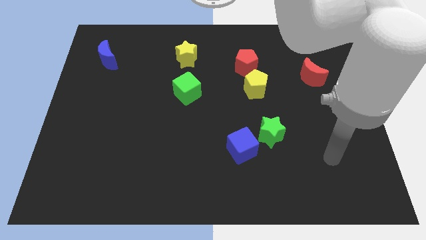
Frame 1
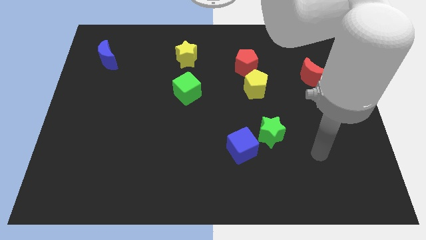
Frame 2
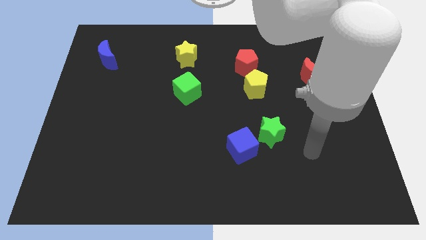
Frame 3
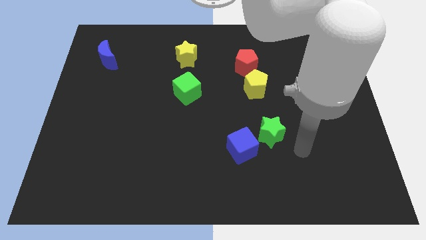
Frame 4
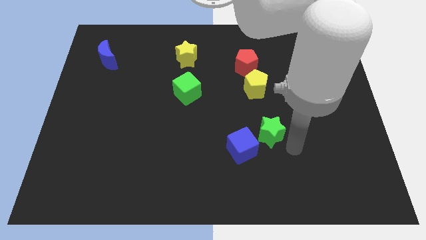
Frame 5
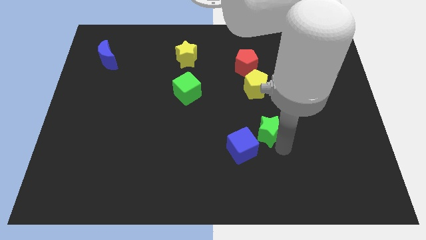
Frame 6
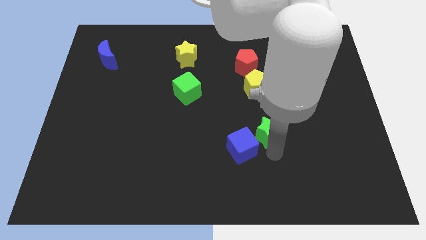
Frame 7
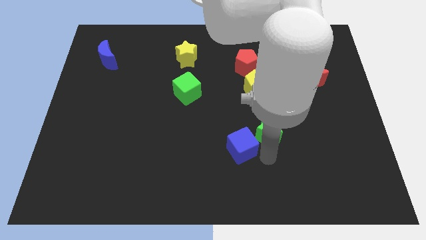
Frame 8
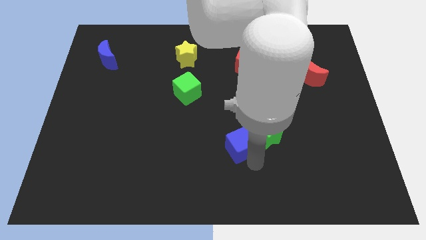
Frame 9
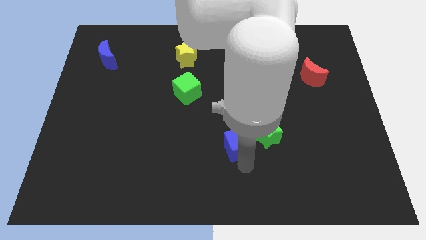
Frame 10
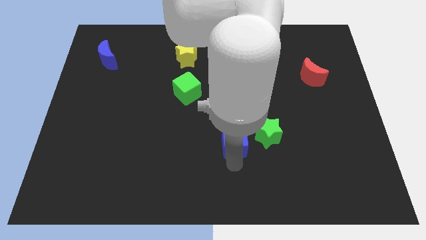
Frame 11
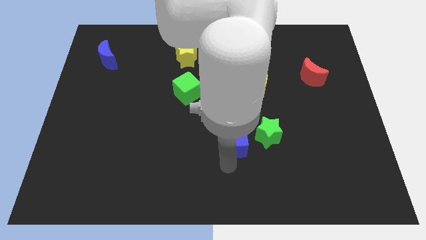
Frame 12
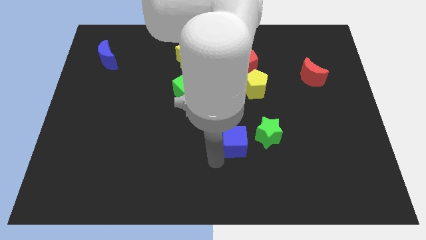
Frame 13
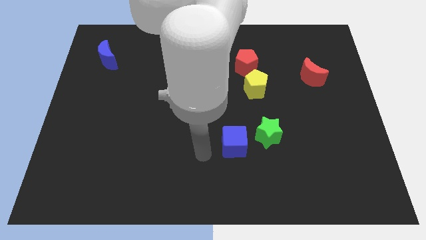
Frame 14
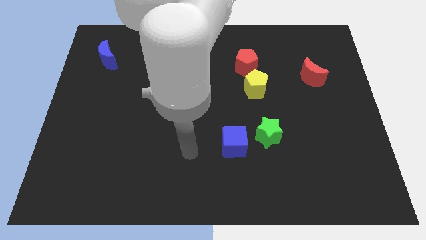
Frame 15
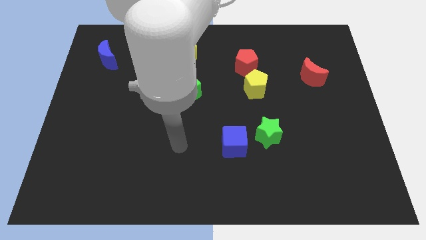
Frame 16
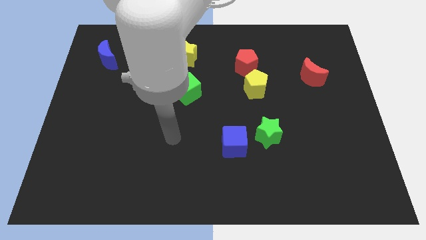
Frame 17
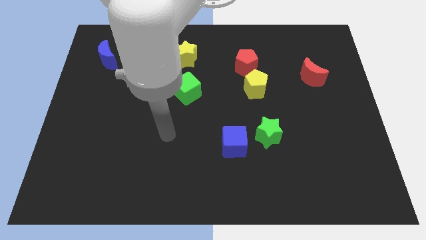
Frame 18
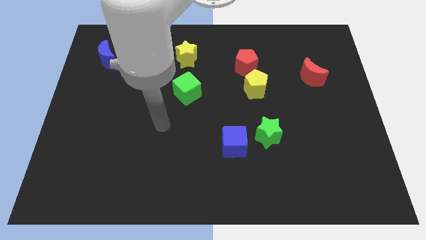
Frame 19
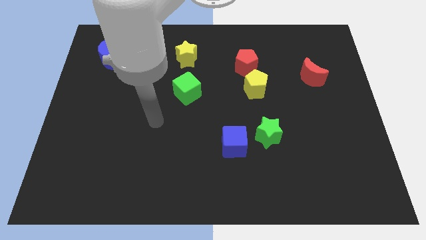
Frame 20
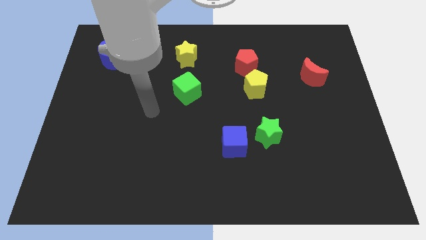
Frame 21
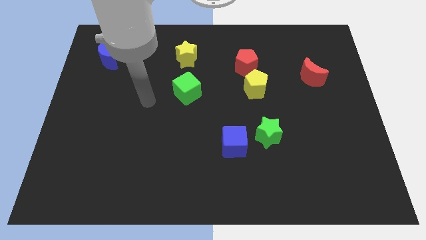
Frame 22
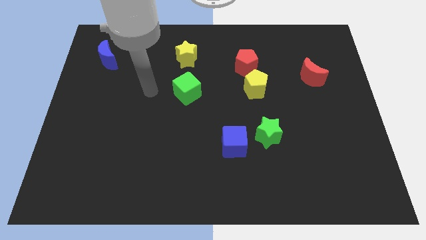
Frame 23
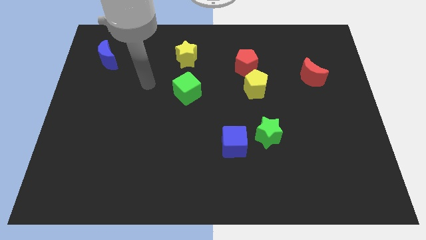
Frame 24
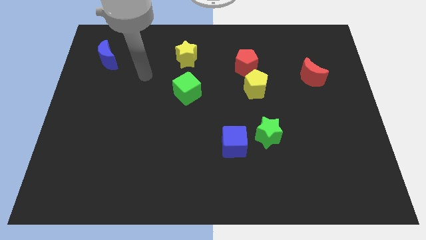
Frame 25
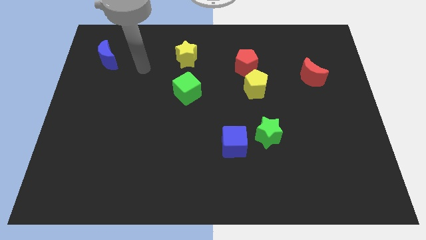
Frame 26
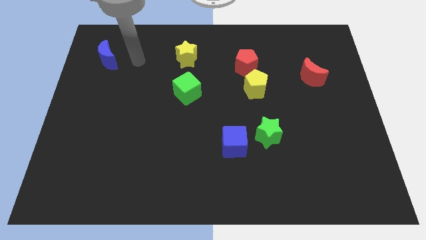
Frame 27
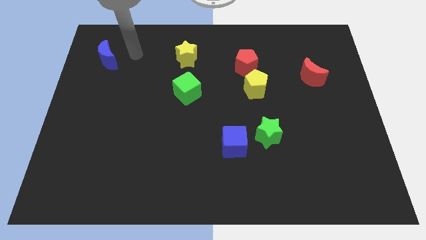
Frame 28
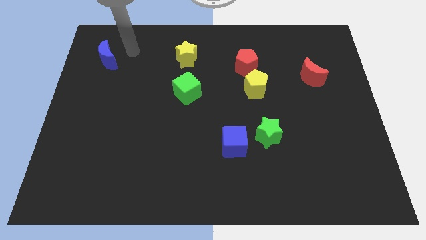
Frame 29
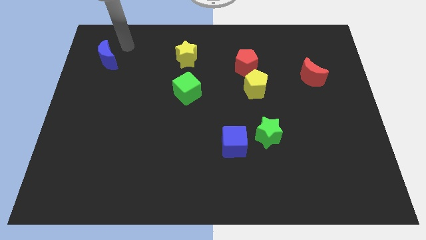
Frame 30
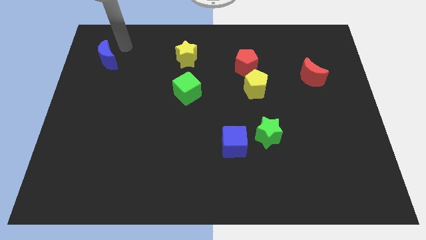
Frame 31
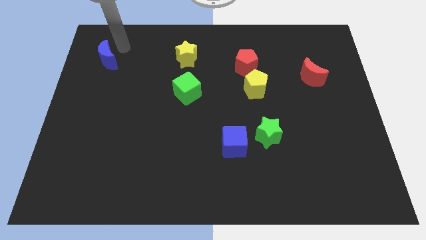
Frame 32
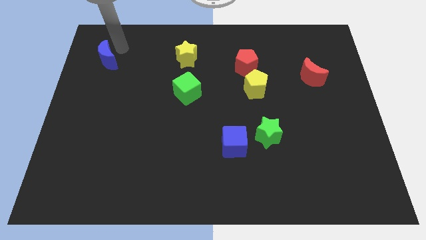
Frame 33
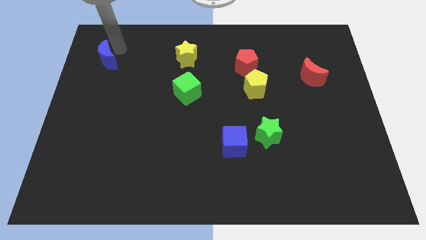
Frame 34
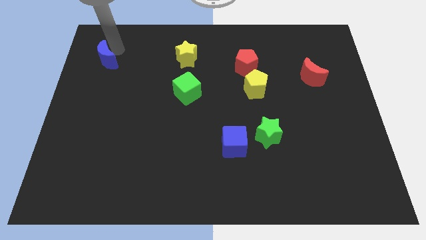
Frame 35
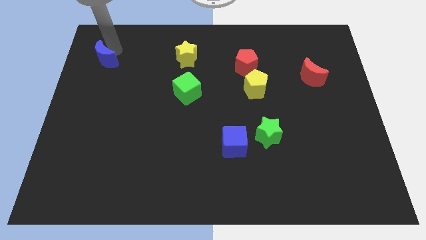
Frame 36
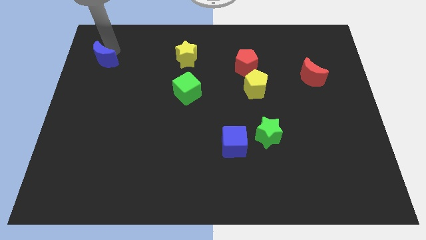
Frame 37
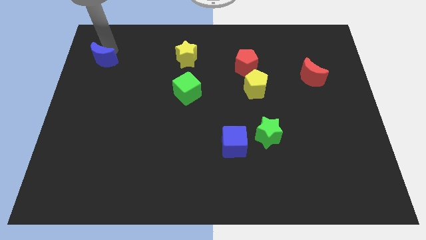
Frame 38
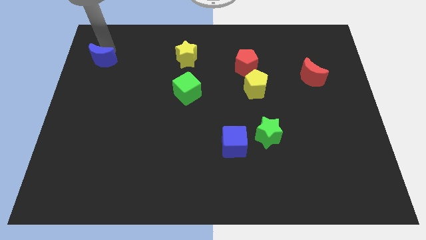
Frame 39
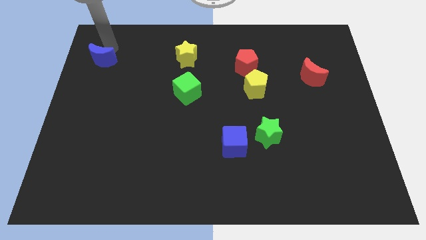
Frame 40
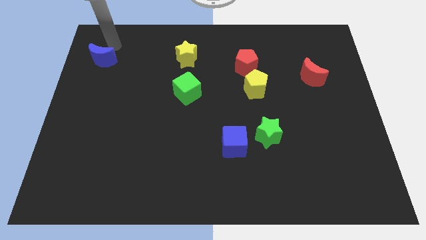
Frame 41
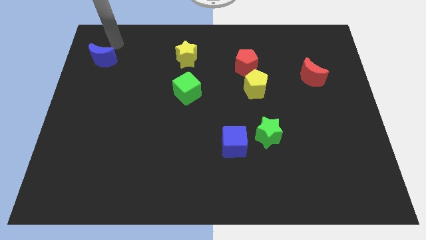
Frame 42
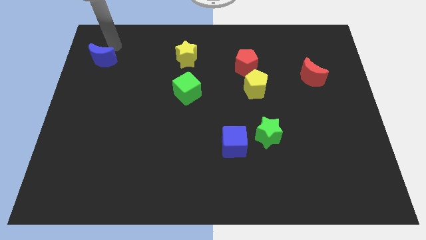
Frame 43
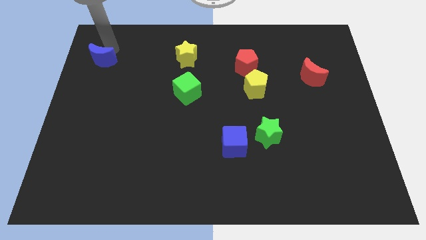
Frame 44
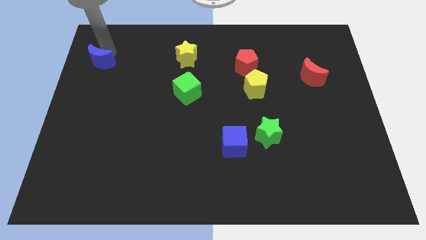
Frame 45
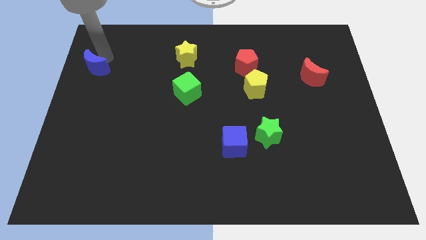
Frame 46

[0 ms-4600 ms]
push the blue moon to the left side of the board

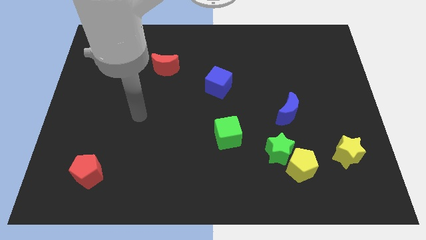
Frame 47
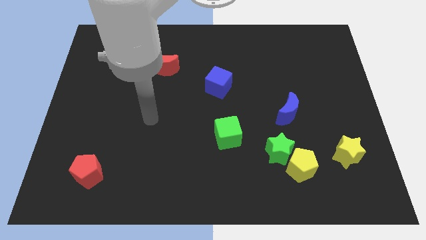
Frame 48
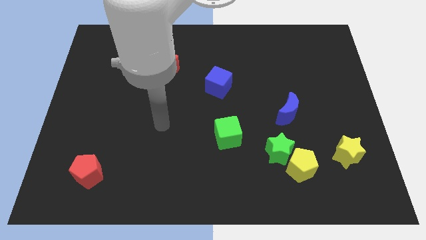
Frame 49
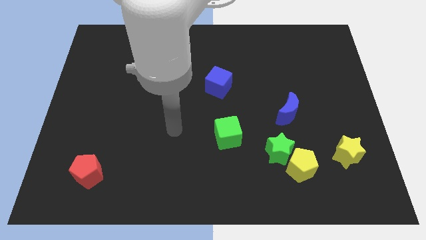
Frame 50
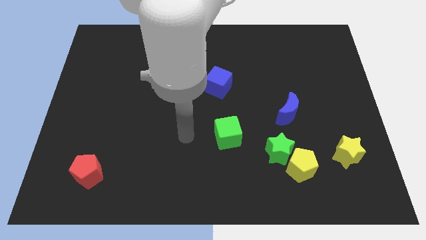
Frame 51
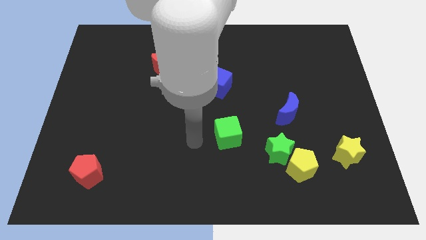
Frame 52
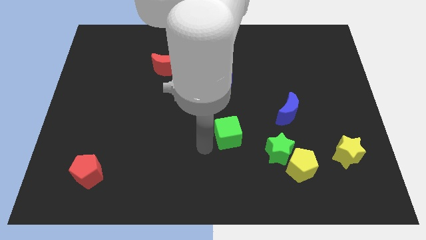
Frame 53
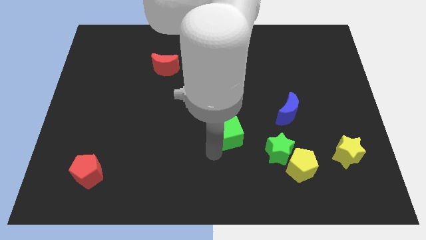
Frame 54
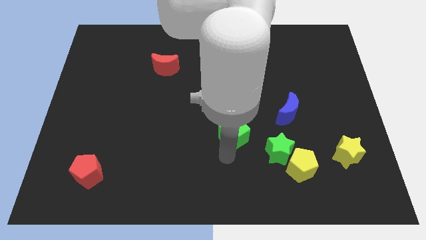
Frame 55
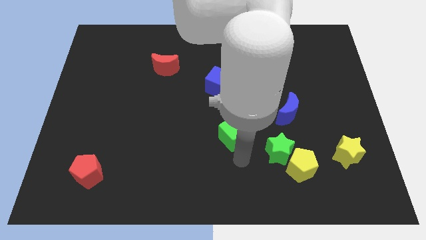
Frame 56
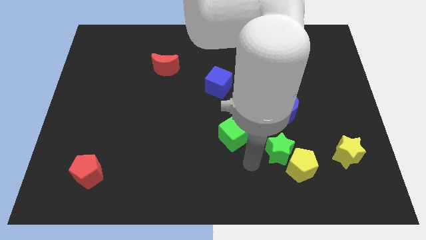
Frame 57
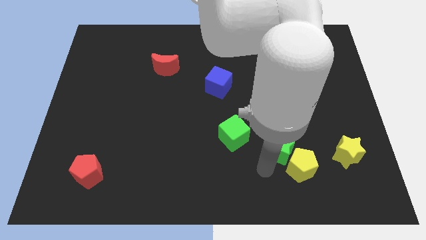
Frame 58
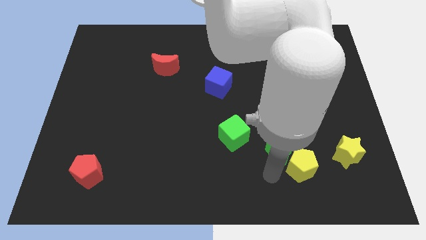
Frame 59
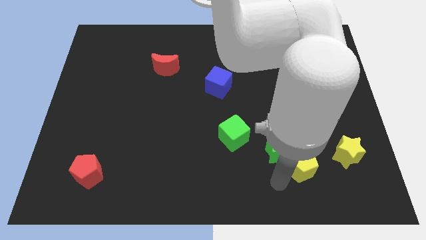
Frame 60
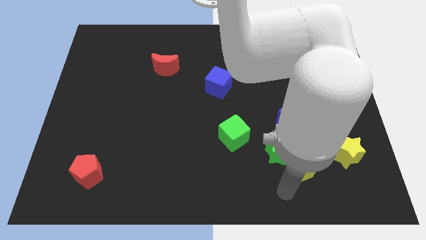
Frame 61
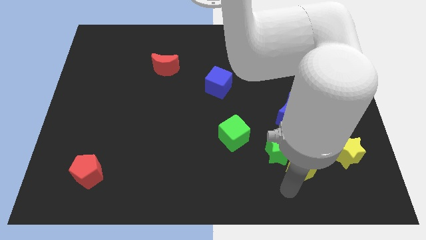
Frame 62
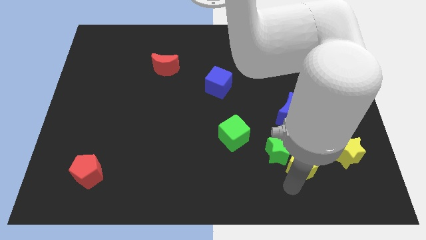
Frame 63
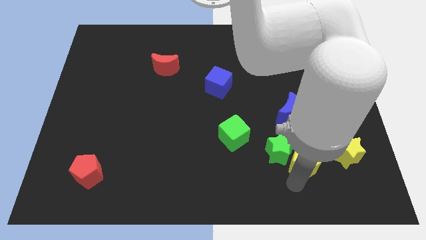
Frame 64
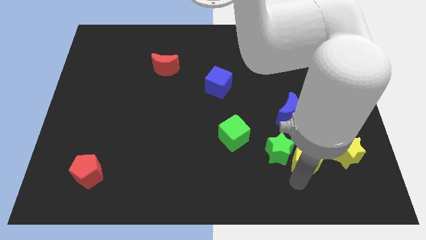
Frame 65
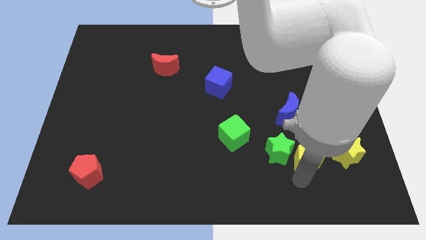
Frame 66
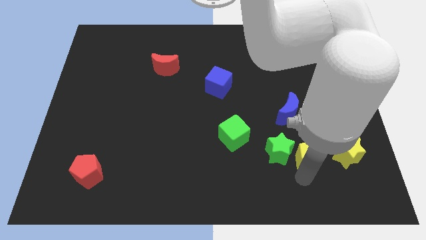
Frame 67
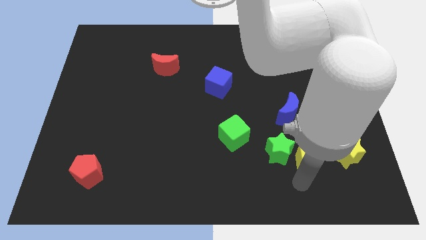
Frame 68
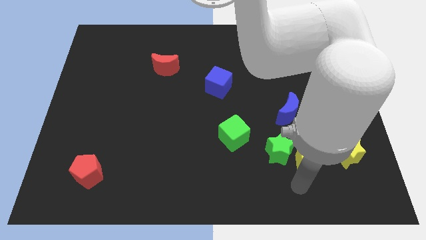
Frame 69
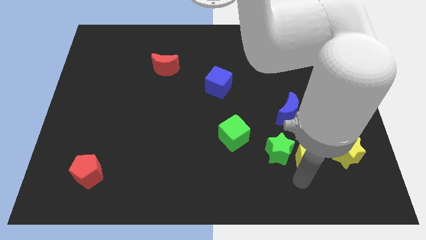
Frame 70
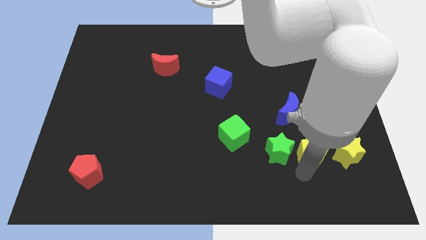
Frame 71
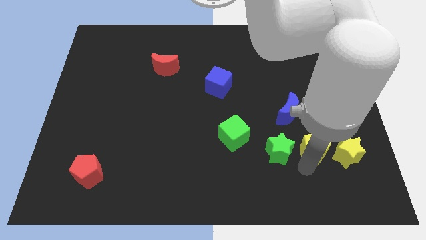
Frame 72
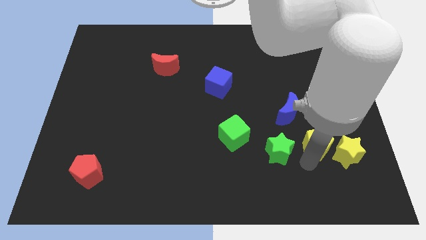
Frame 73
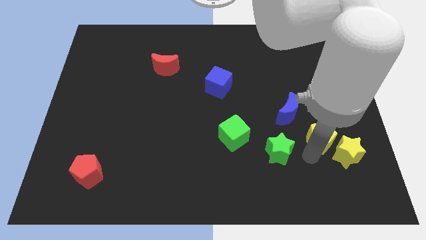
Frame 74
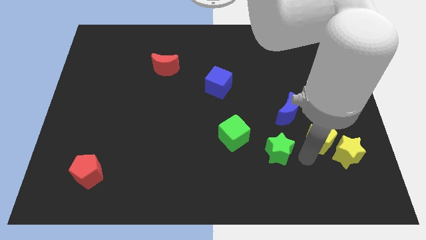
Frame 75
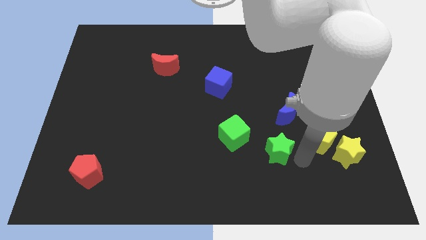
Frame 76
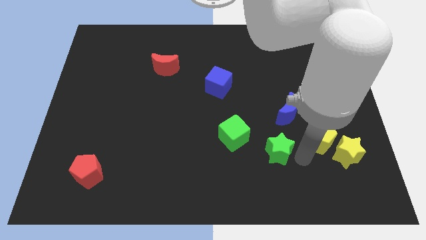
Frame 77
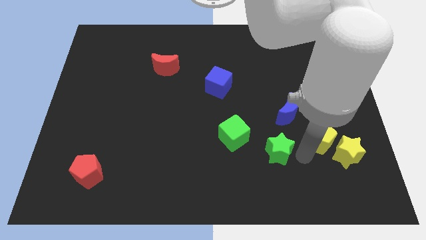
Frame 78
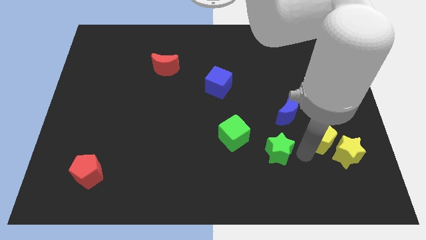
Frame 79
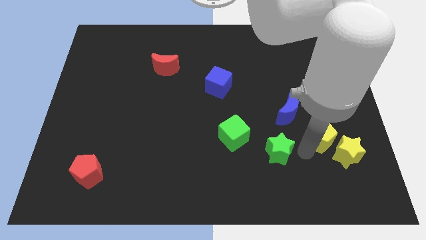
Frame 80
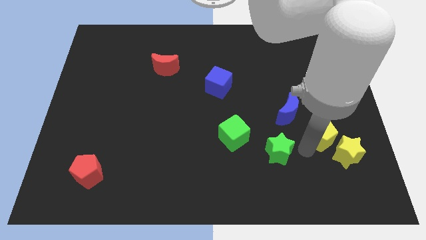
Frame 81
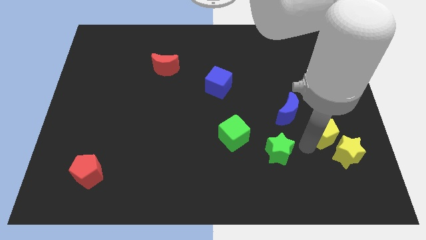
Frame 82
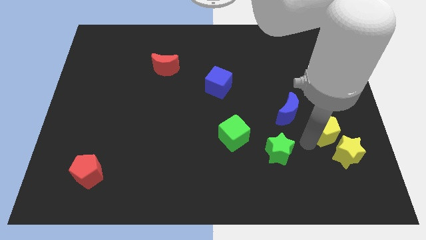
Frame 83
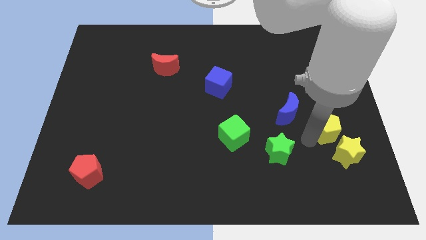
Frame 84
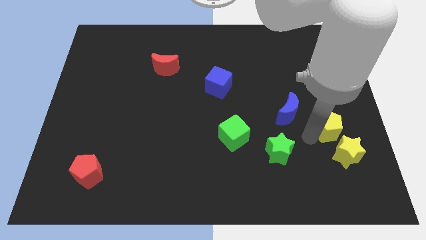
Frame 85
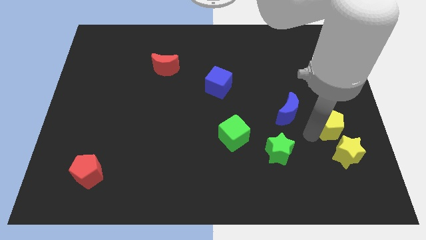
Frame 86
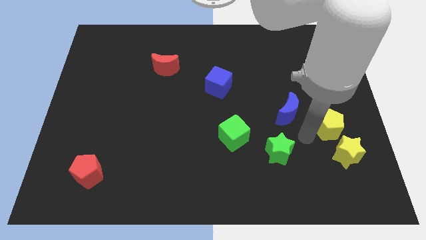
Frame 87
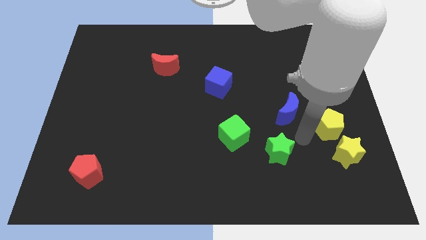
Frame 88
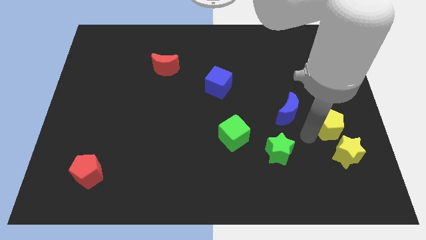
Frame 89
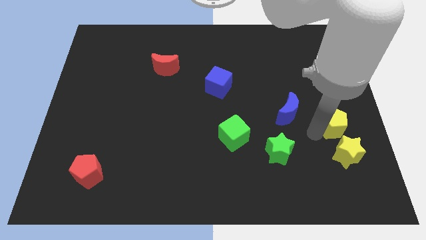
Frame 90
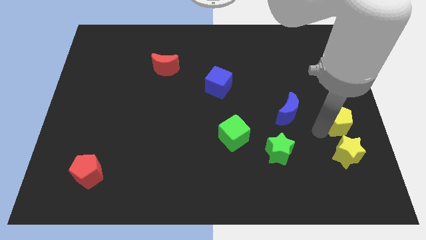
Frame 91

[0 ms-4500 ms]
move the yellow pentagon to the right side of the board
